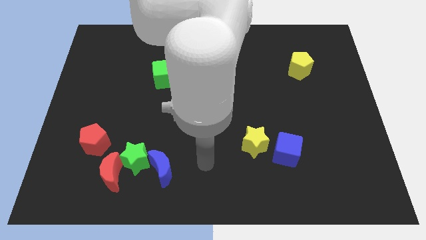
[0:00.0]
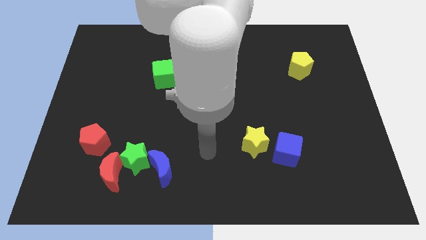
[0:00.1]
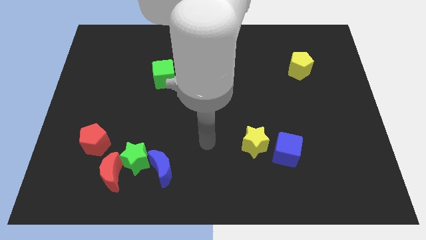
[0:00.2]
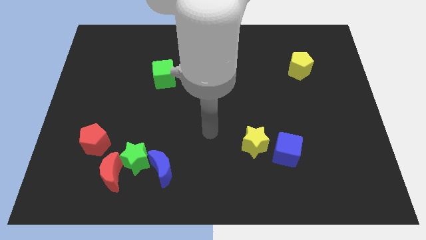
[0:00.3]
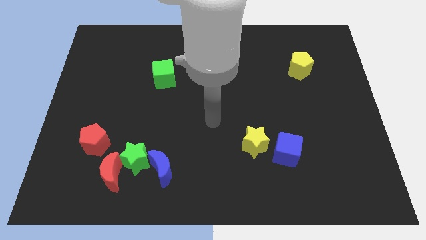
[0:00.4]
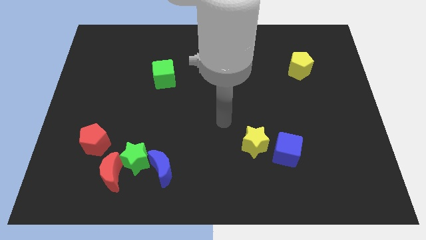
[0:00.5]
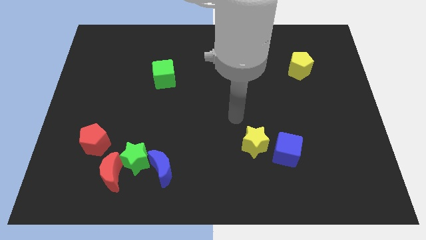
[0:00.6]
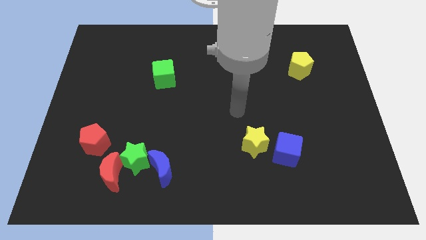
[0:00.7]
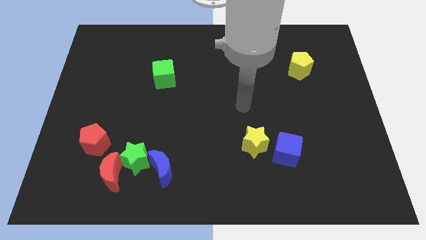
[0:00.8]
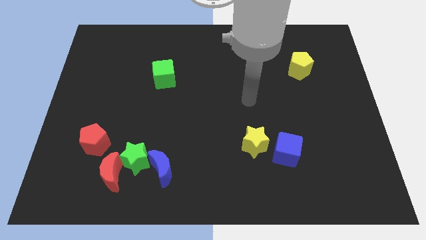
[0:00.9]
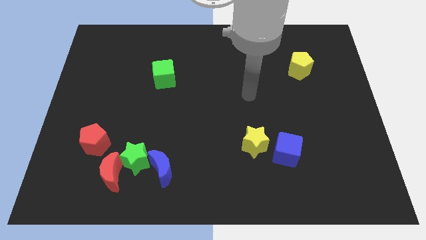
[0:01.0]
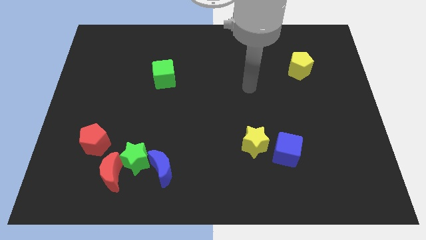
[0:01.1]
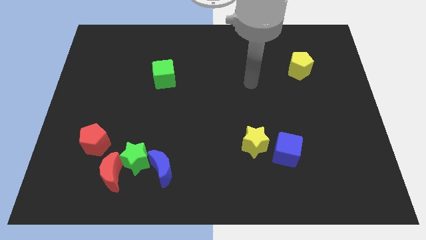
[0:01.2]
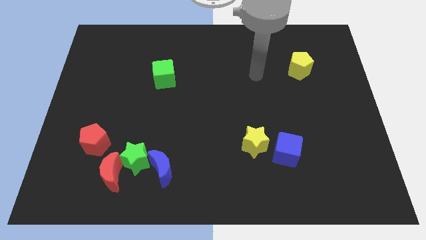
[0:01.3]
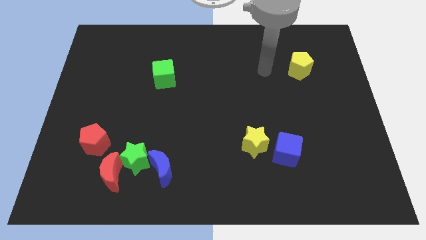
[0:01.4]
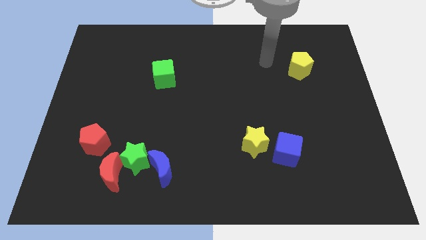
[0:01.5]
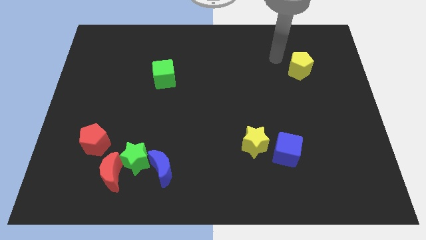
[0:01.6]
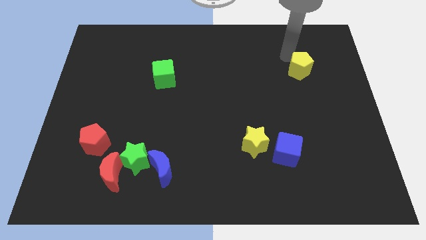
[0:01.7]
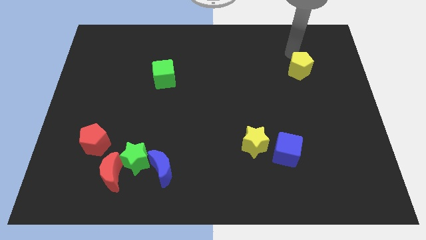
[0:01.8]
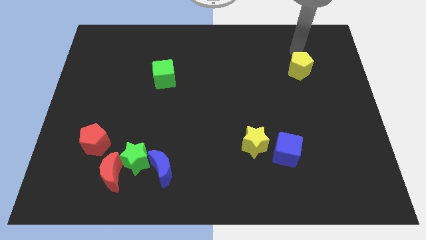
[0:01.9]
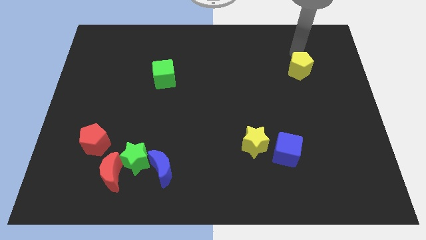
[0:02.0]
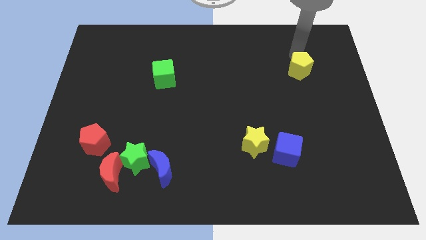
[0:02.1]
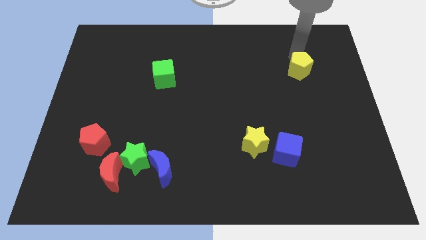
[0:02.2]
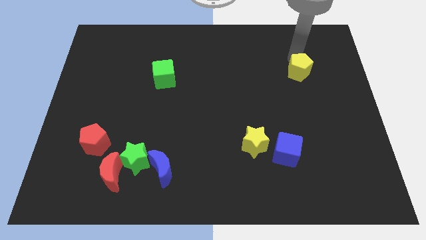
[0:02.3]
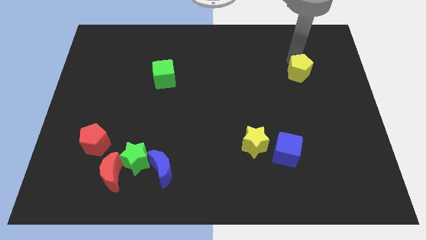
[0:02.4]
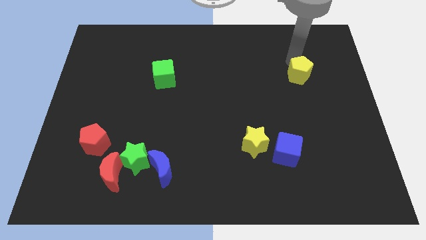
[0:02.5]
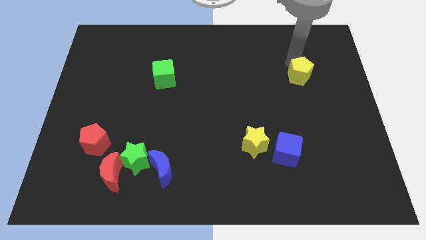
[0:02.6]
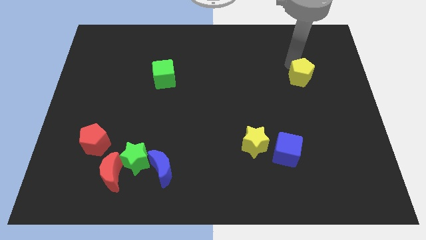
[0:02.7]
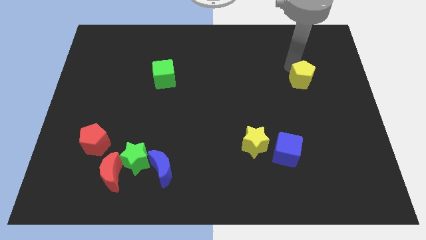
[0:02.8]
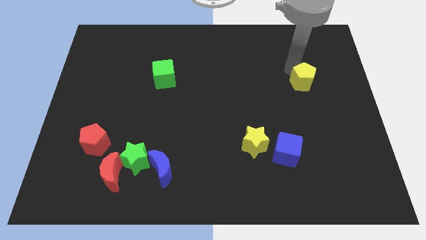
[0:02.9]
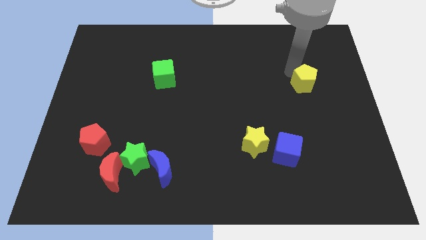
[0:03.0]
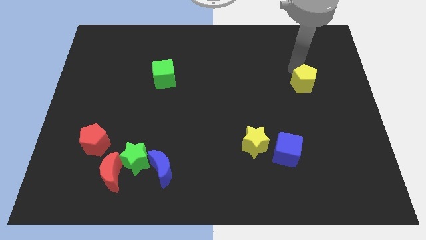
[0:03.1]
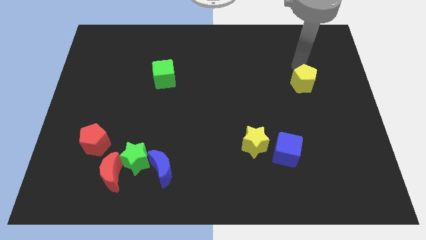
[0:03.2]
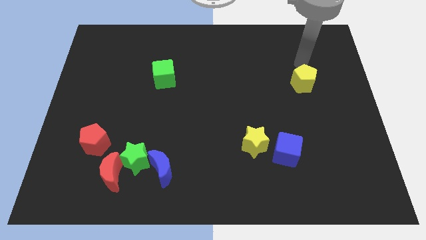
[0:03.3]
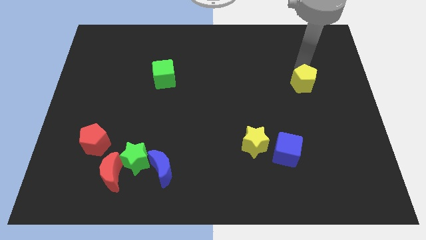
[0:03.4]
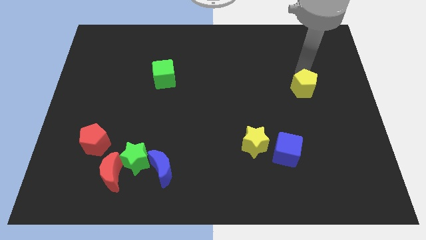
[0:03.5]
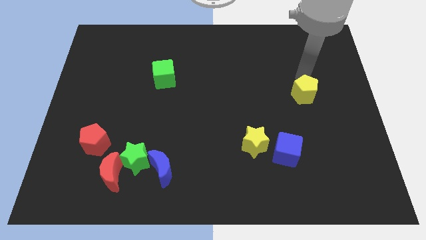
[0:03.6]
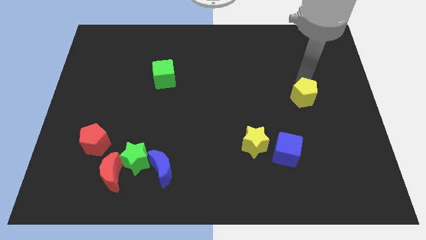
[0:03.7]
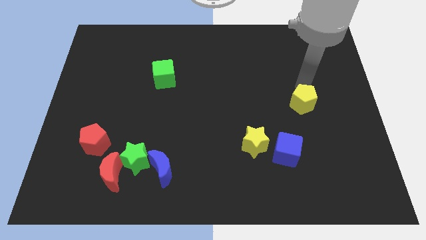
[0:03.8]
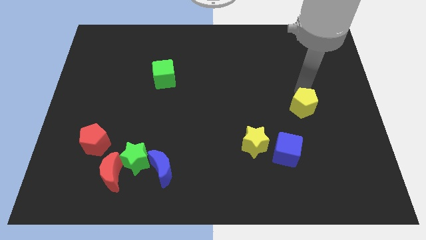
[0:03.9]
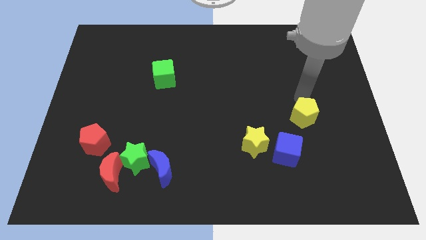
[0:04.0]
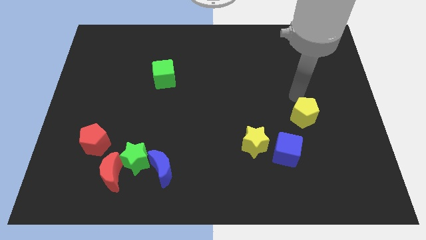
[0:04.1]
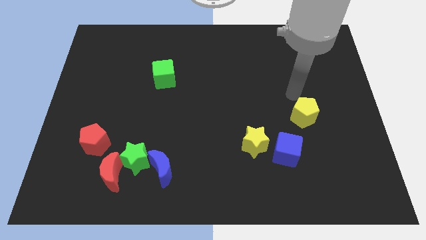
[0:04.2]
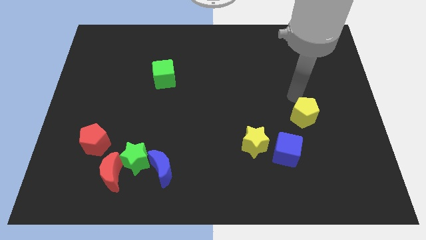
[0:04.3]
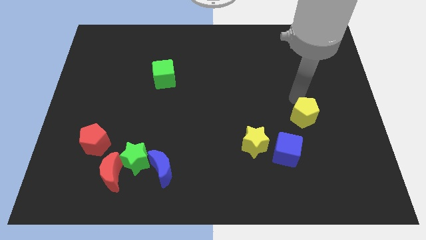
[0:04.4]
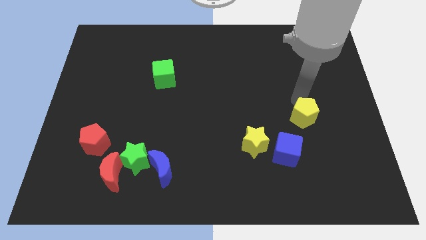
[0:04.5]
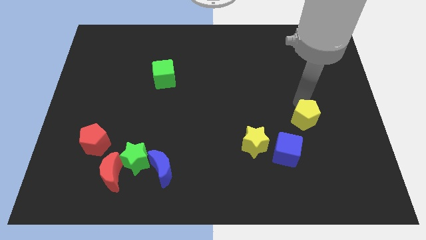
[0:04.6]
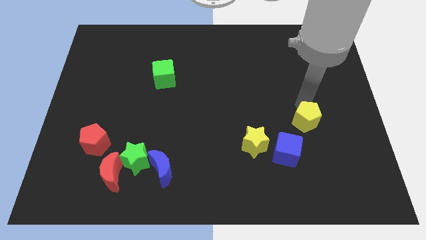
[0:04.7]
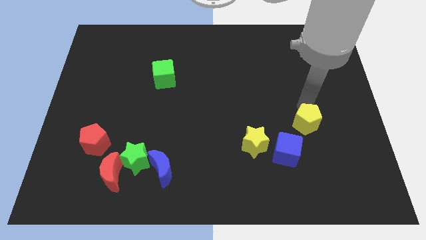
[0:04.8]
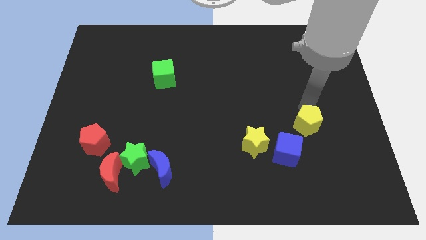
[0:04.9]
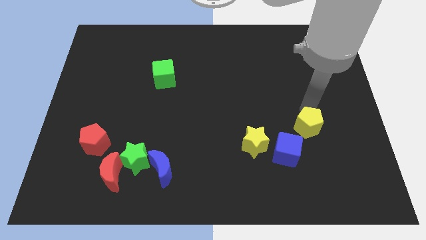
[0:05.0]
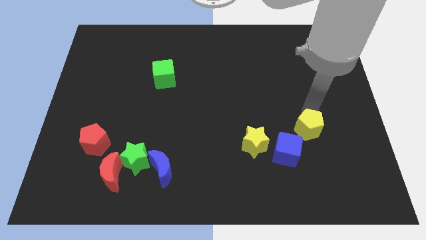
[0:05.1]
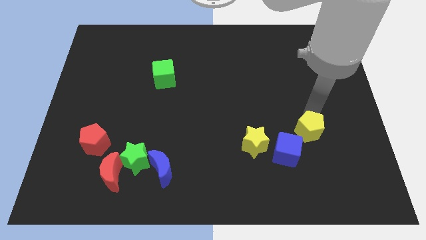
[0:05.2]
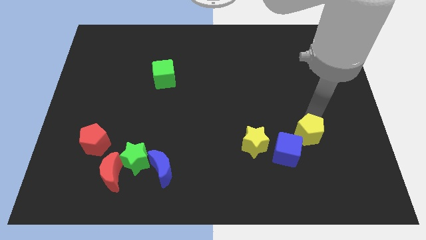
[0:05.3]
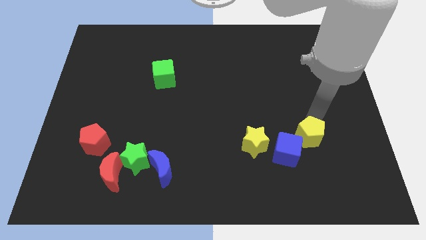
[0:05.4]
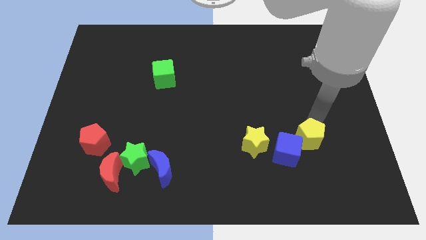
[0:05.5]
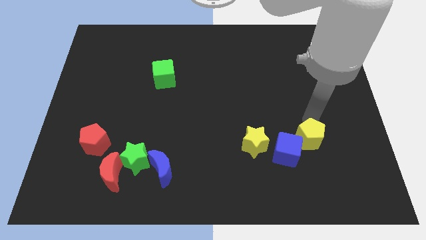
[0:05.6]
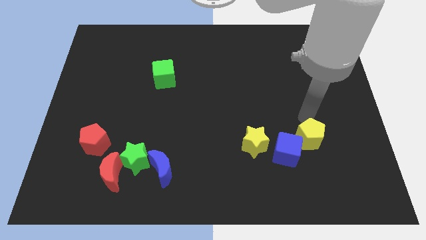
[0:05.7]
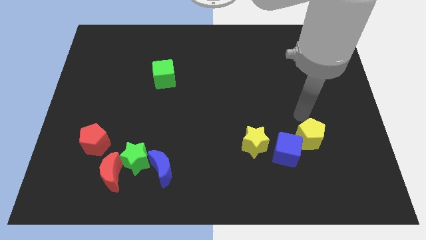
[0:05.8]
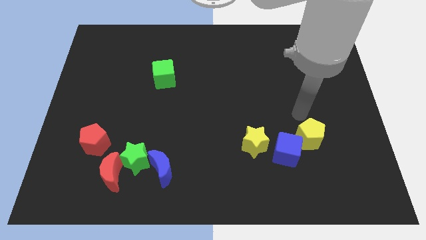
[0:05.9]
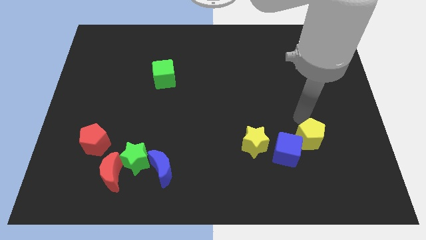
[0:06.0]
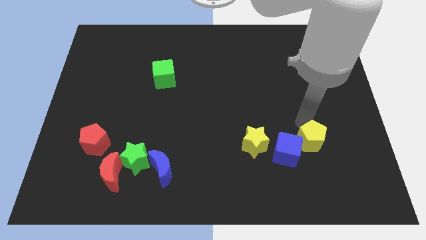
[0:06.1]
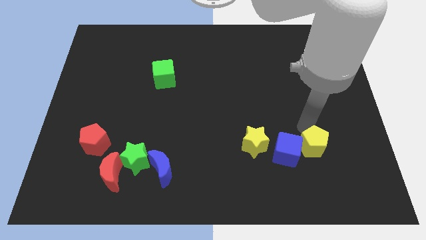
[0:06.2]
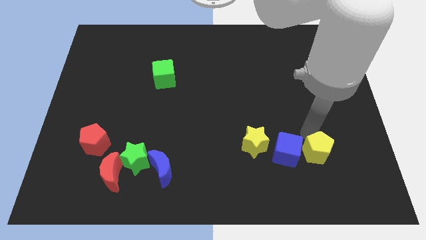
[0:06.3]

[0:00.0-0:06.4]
slide the yellow pentagon to the bottom right side of the blue cube
